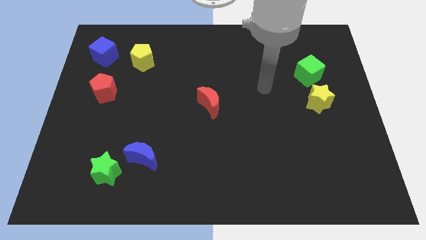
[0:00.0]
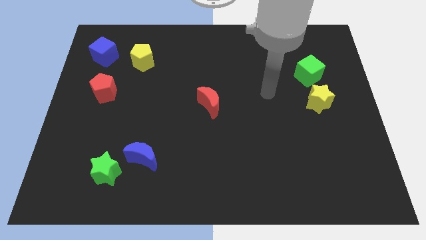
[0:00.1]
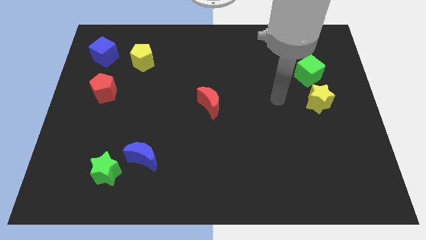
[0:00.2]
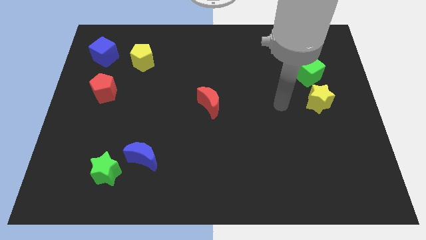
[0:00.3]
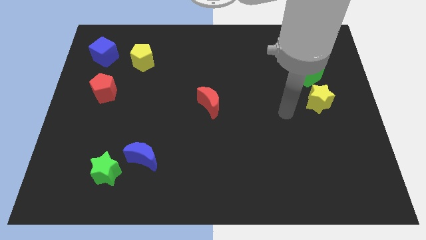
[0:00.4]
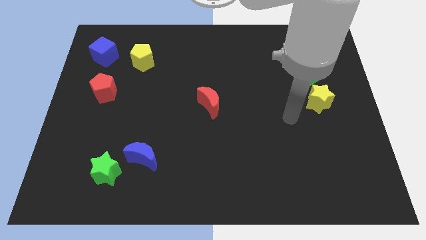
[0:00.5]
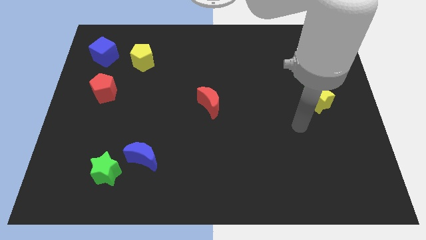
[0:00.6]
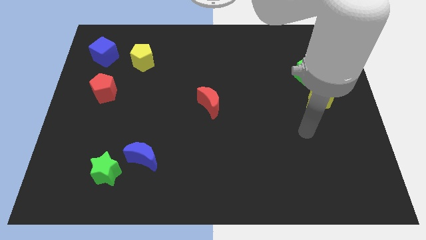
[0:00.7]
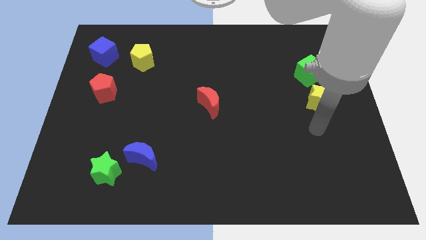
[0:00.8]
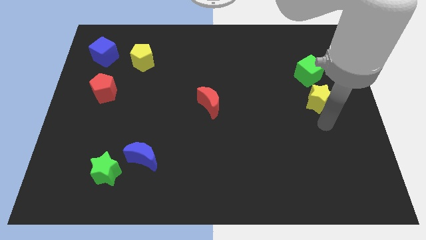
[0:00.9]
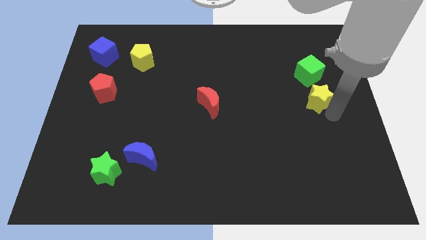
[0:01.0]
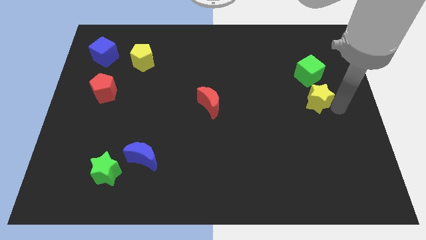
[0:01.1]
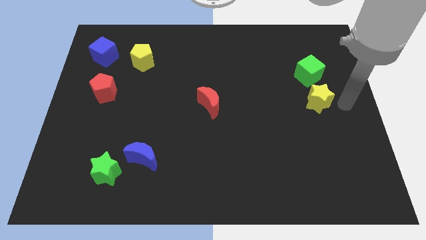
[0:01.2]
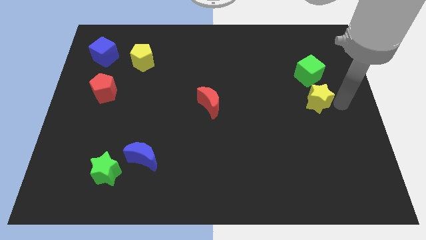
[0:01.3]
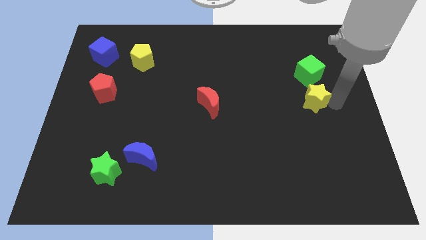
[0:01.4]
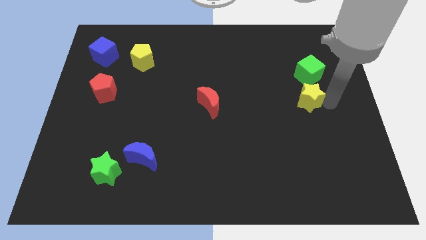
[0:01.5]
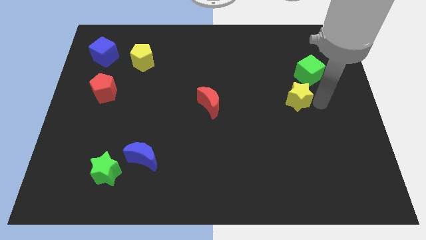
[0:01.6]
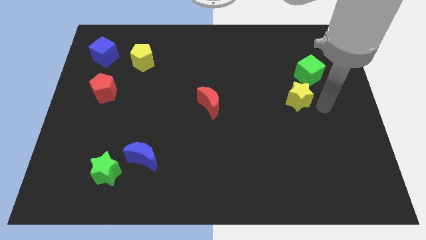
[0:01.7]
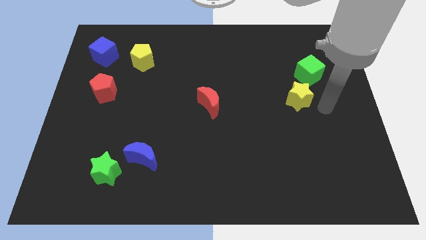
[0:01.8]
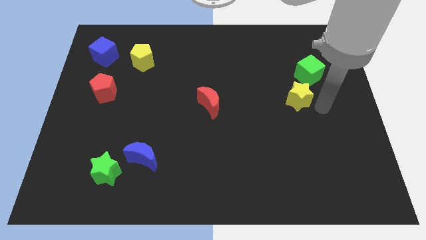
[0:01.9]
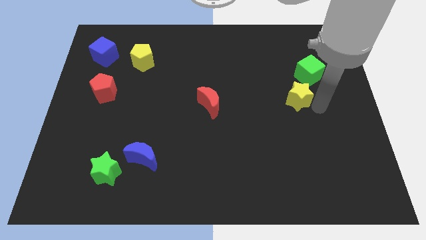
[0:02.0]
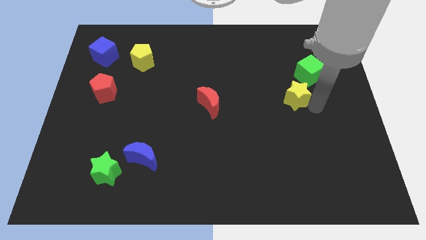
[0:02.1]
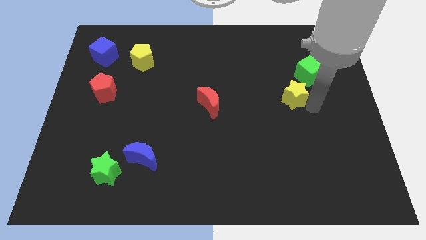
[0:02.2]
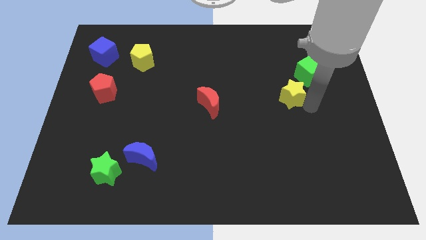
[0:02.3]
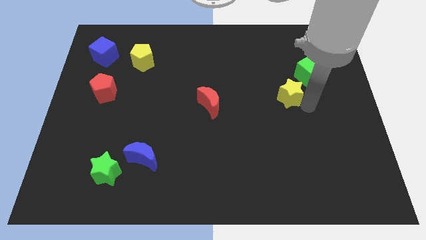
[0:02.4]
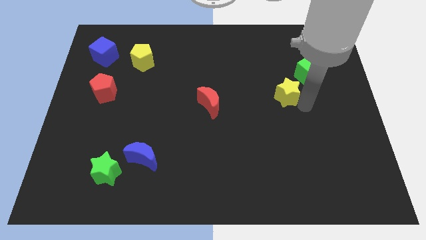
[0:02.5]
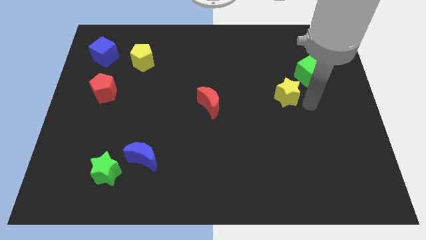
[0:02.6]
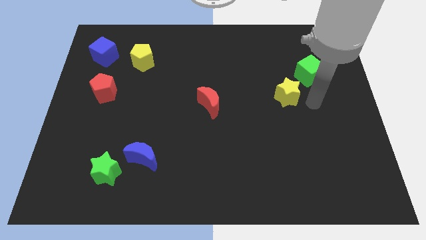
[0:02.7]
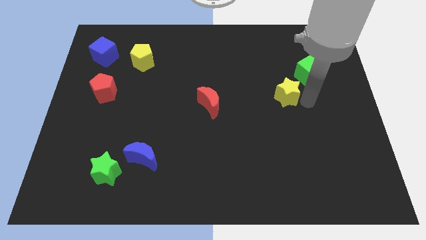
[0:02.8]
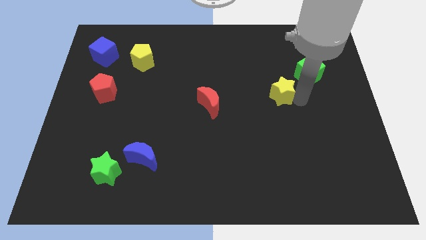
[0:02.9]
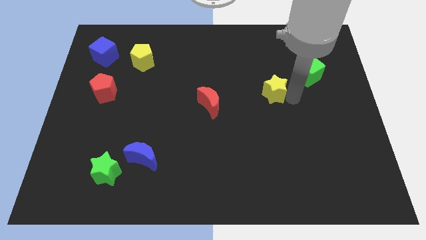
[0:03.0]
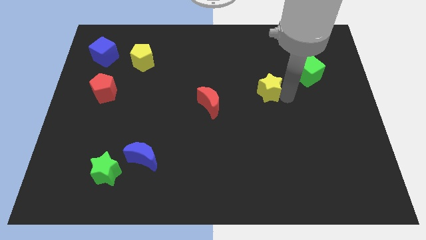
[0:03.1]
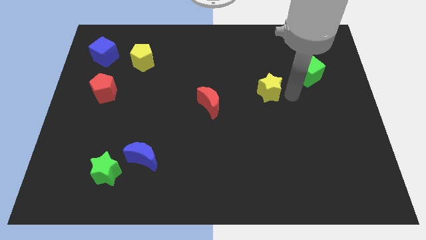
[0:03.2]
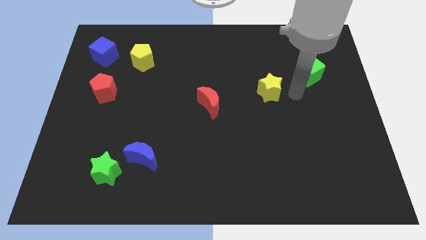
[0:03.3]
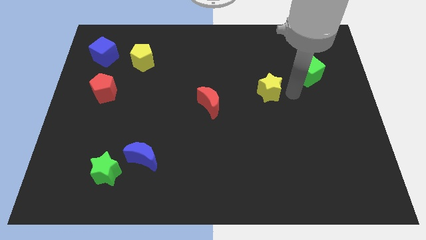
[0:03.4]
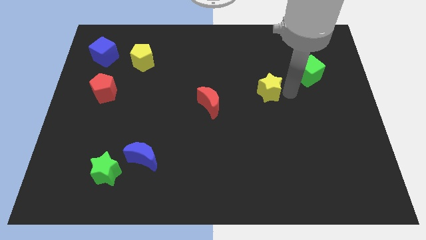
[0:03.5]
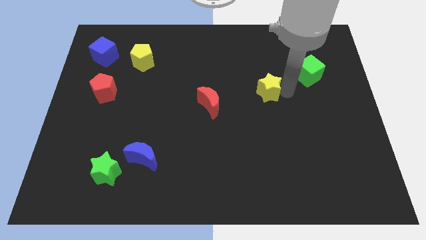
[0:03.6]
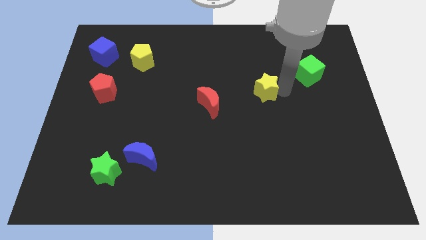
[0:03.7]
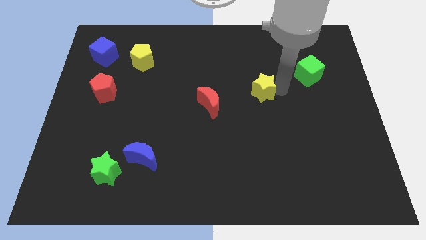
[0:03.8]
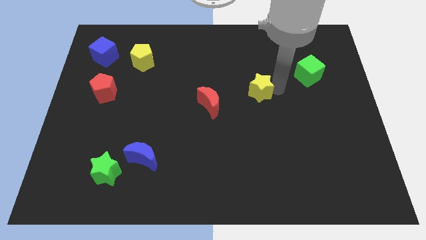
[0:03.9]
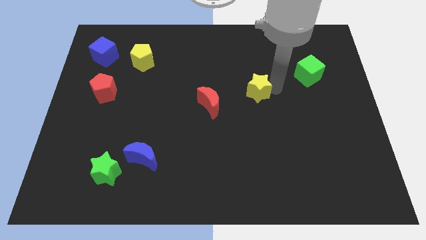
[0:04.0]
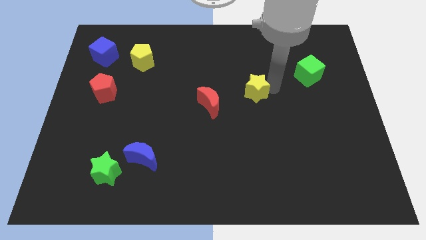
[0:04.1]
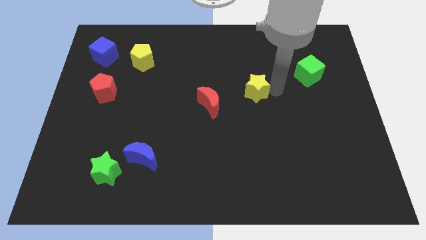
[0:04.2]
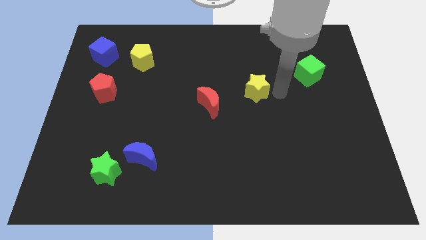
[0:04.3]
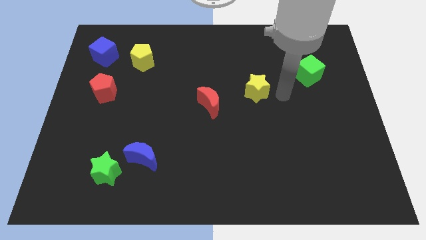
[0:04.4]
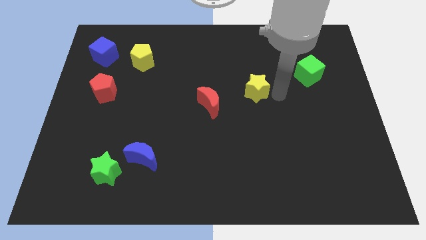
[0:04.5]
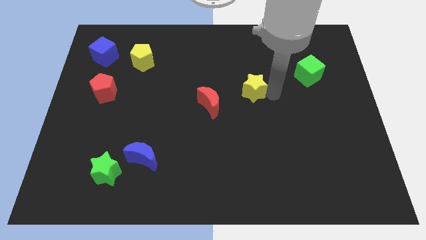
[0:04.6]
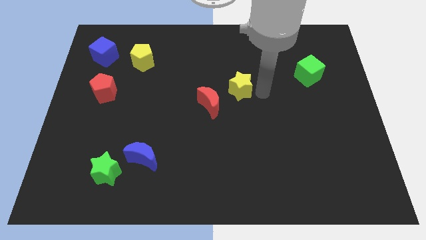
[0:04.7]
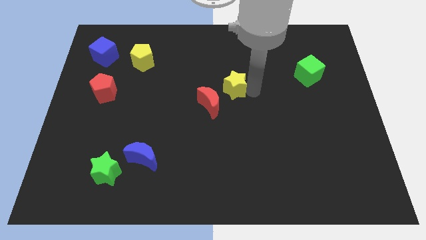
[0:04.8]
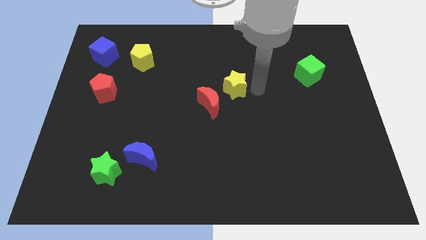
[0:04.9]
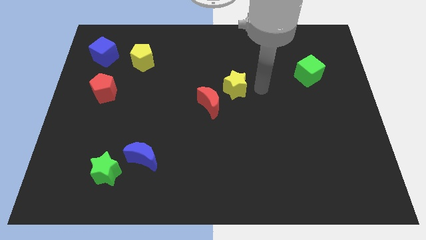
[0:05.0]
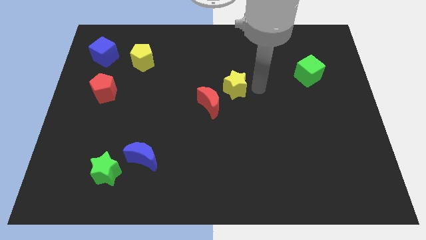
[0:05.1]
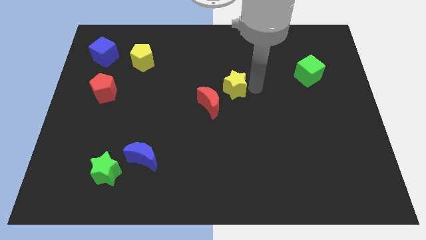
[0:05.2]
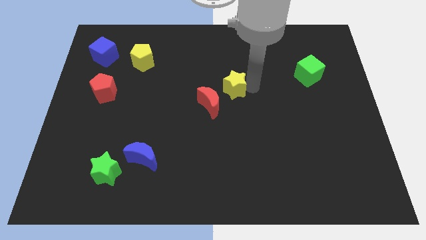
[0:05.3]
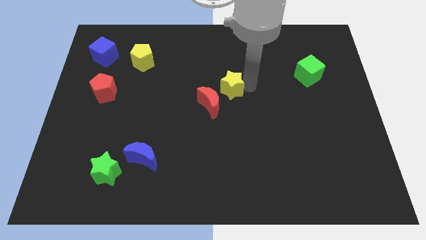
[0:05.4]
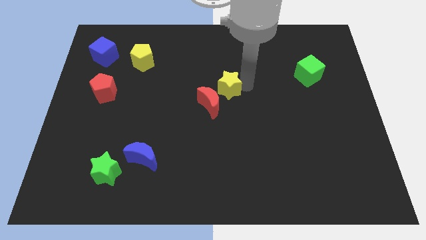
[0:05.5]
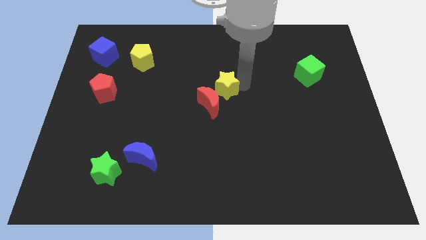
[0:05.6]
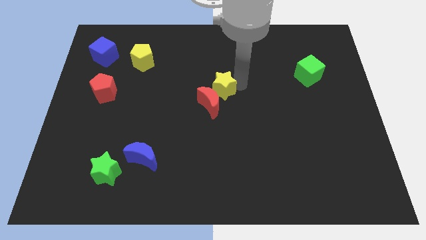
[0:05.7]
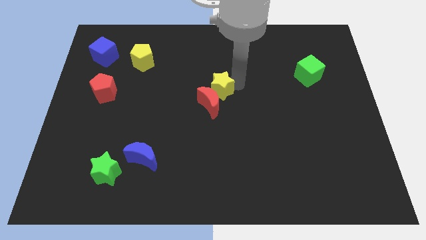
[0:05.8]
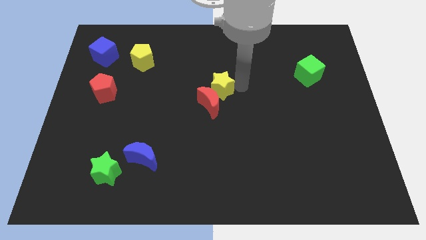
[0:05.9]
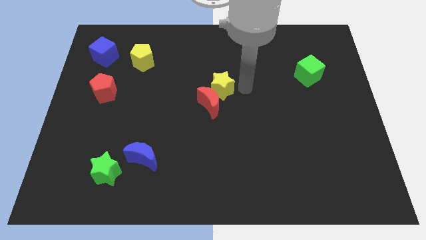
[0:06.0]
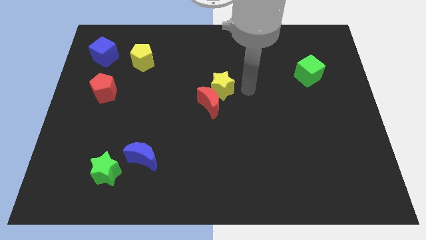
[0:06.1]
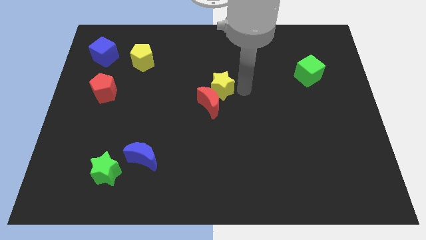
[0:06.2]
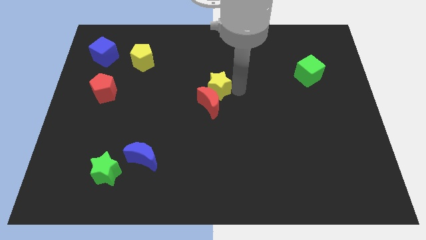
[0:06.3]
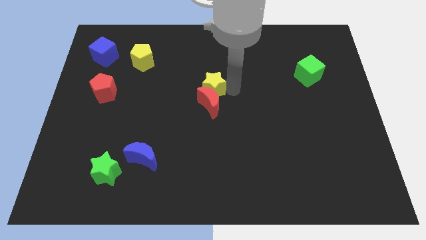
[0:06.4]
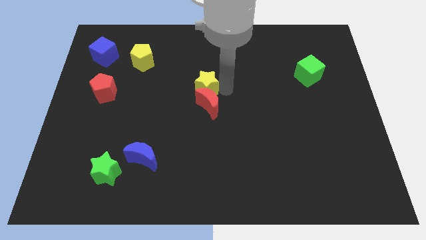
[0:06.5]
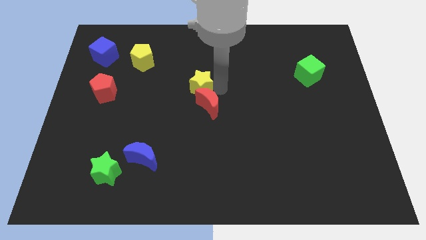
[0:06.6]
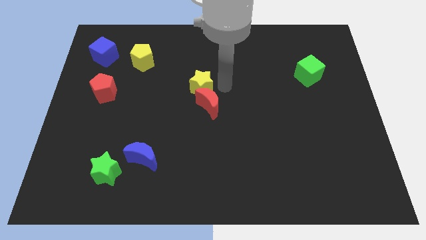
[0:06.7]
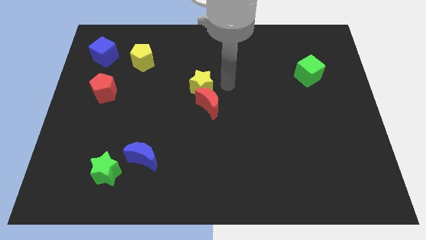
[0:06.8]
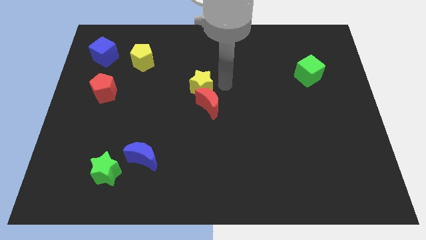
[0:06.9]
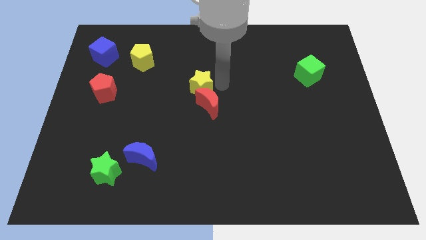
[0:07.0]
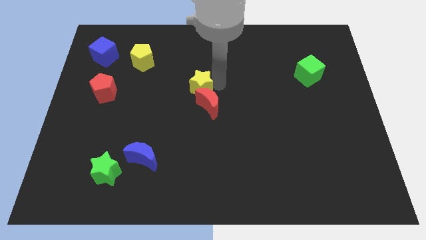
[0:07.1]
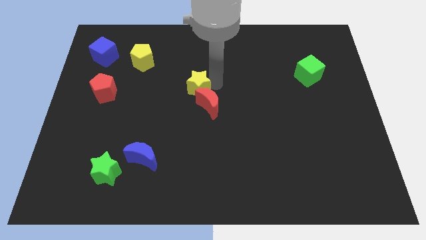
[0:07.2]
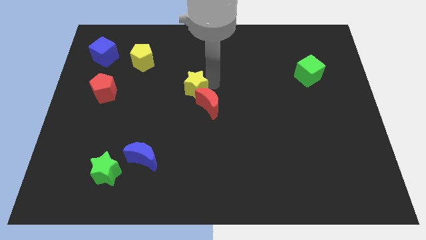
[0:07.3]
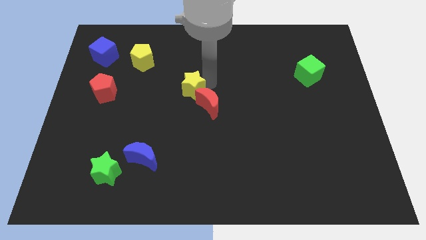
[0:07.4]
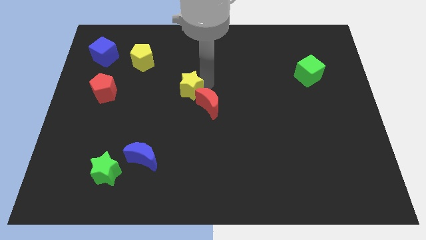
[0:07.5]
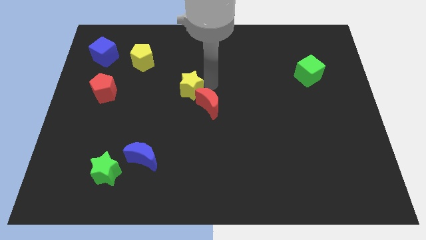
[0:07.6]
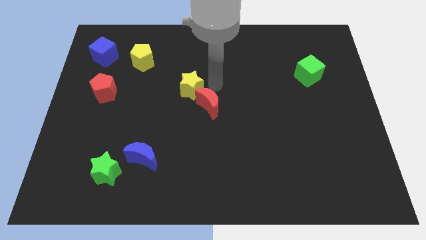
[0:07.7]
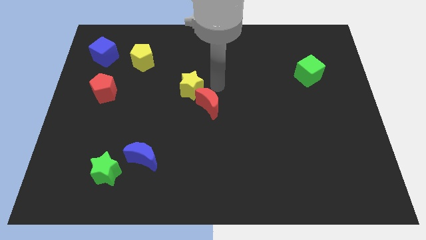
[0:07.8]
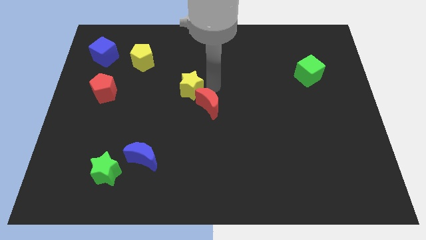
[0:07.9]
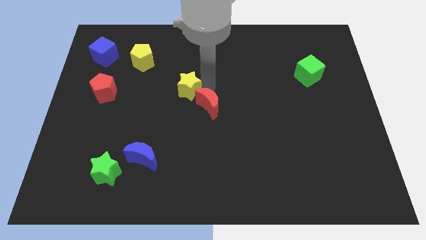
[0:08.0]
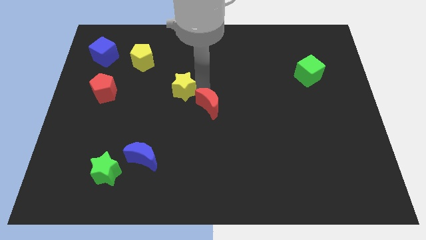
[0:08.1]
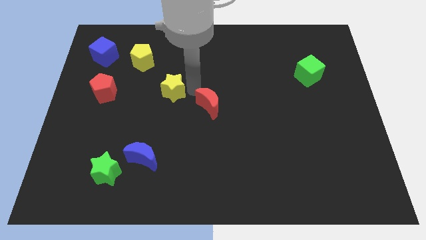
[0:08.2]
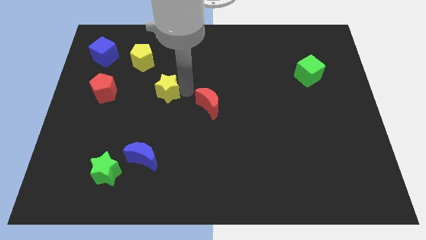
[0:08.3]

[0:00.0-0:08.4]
slide the yellow star to the right side of the red pentagon
